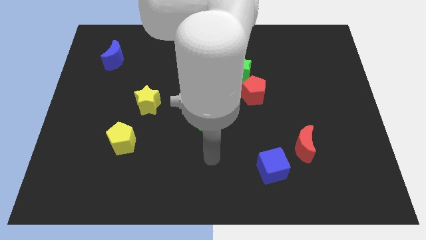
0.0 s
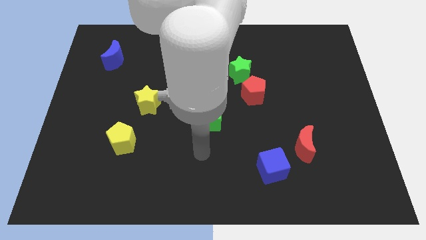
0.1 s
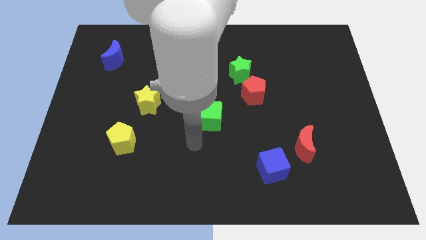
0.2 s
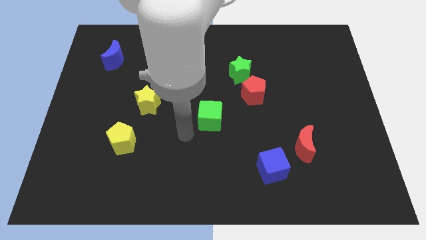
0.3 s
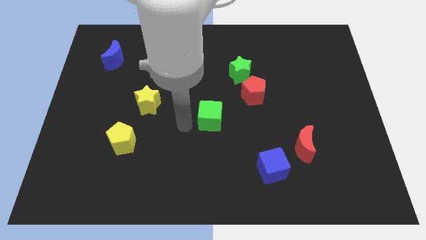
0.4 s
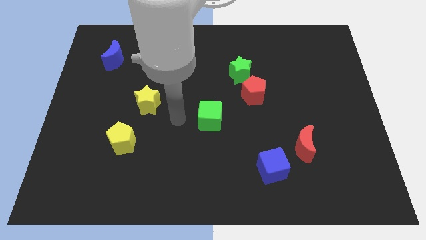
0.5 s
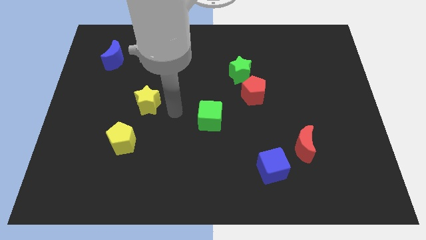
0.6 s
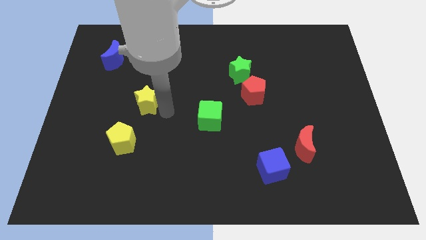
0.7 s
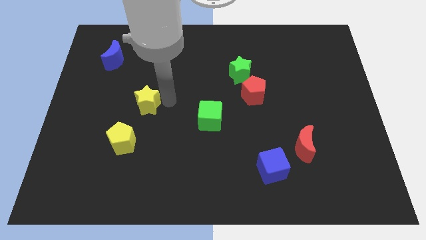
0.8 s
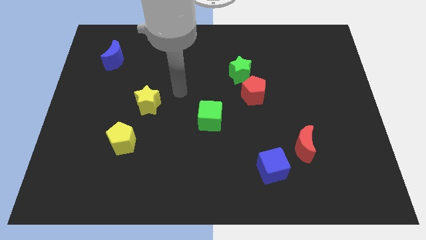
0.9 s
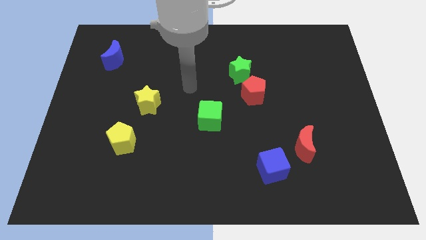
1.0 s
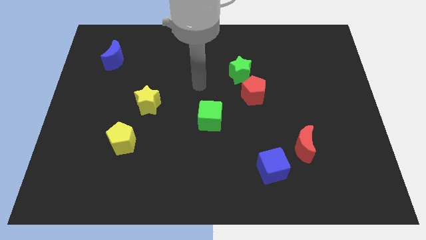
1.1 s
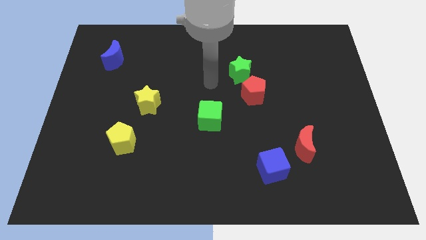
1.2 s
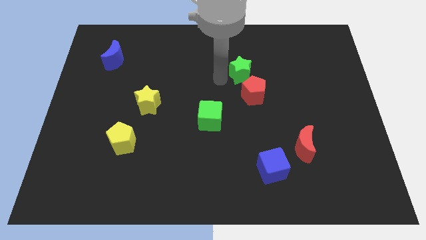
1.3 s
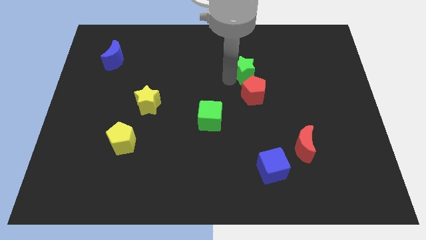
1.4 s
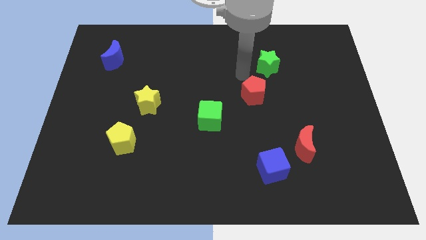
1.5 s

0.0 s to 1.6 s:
move the red pentagon away from the green star

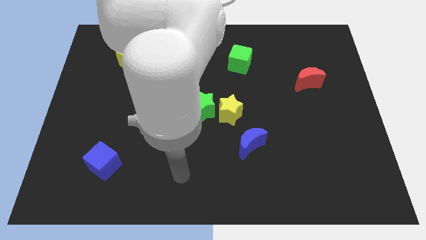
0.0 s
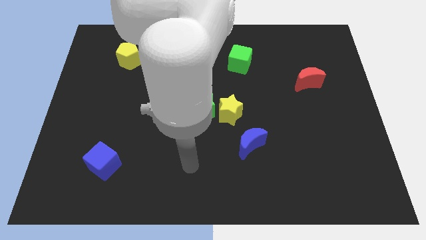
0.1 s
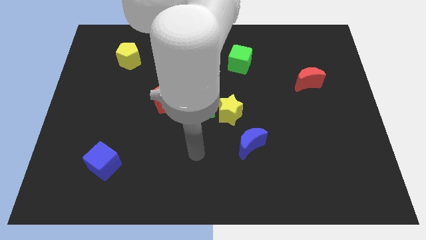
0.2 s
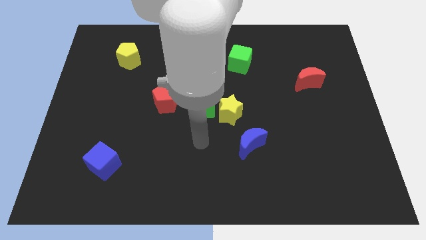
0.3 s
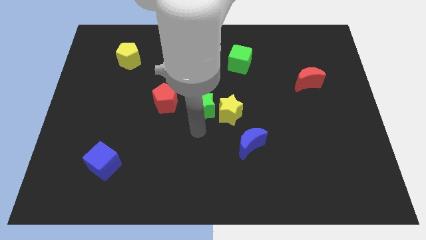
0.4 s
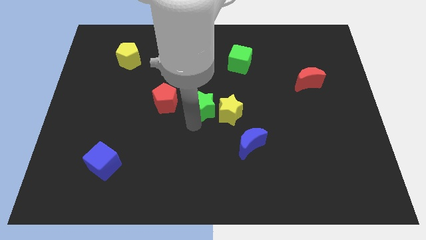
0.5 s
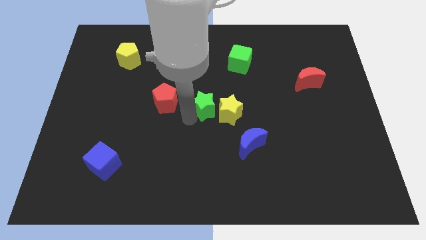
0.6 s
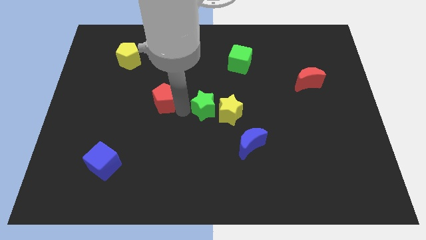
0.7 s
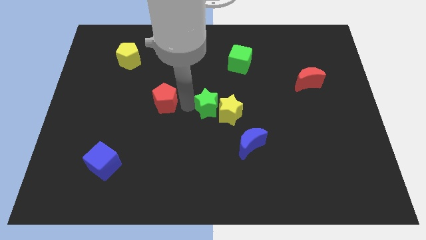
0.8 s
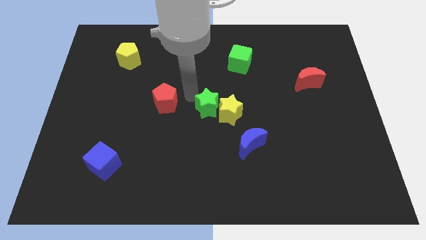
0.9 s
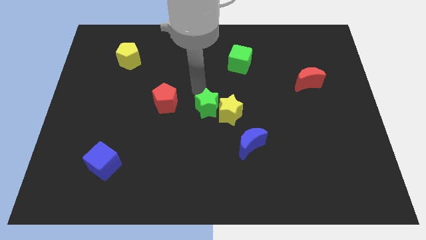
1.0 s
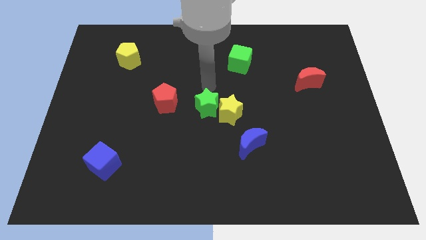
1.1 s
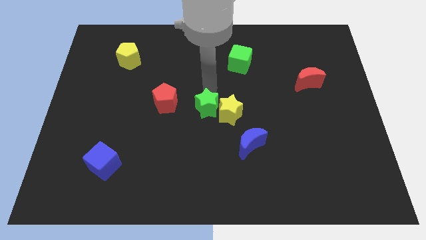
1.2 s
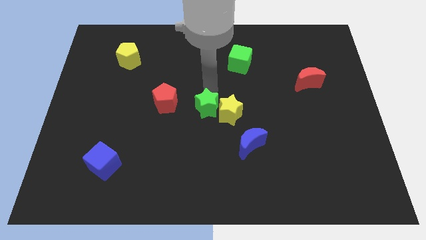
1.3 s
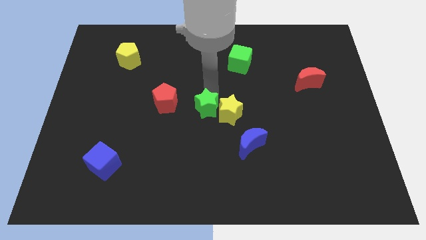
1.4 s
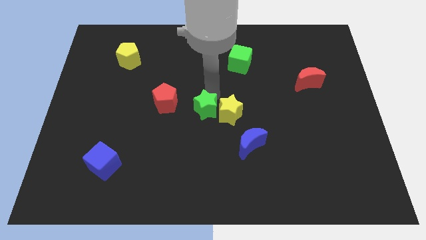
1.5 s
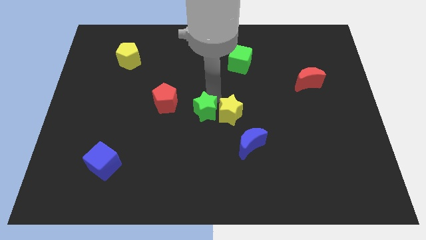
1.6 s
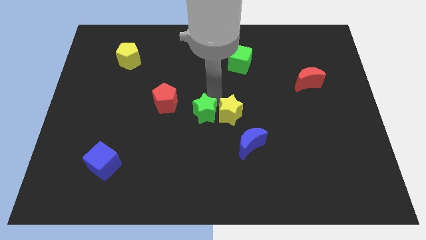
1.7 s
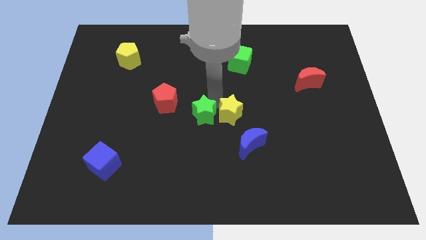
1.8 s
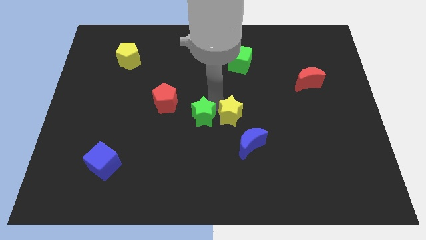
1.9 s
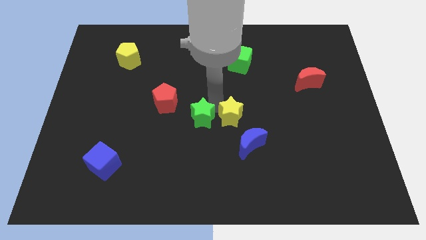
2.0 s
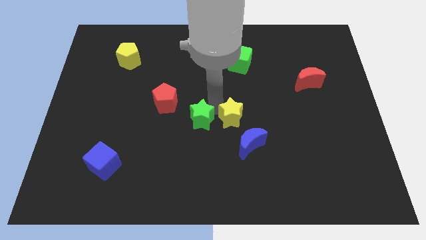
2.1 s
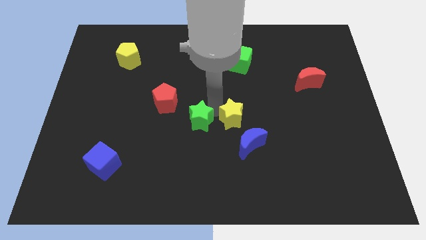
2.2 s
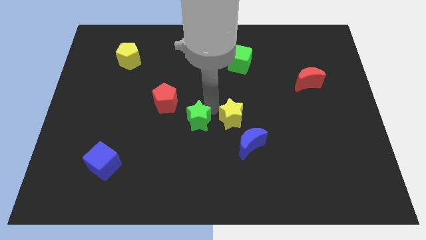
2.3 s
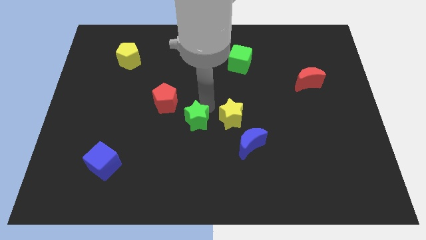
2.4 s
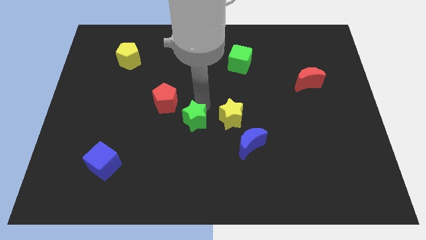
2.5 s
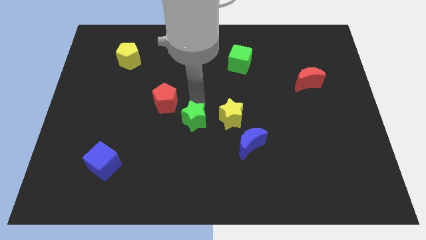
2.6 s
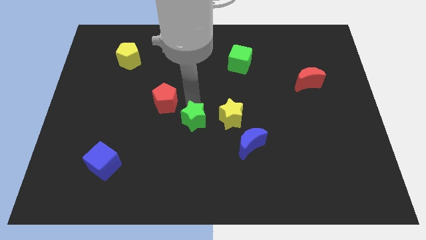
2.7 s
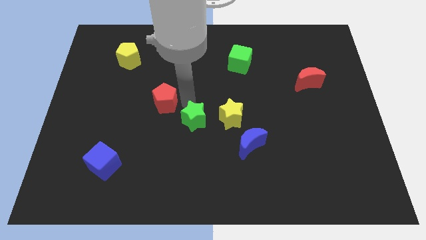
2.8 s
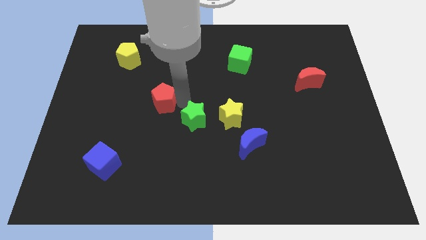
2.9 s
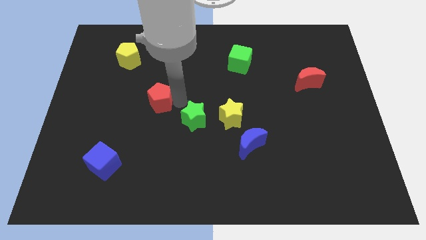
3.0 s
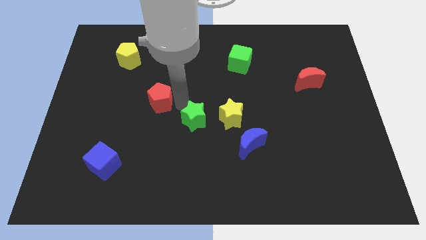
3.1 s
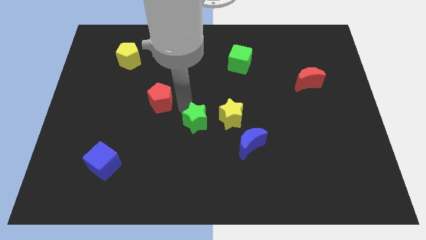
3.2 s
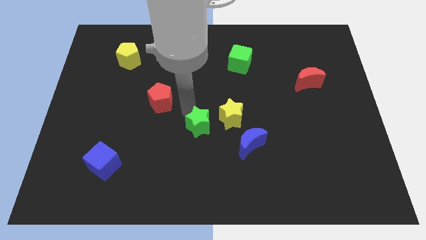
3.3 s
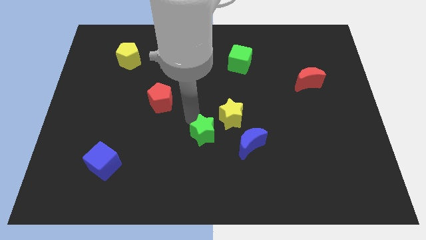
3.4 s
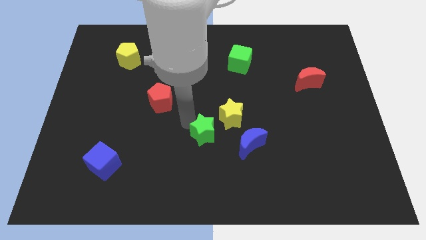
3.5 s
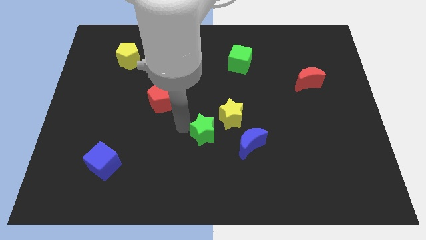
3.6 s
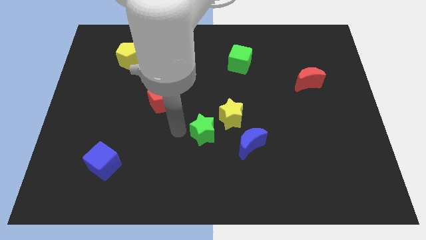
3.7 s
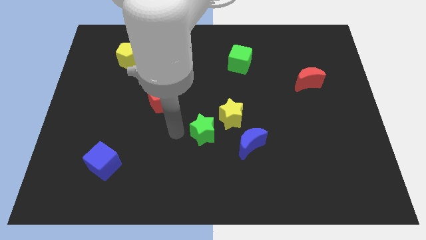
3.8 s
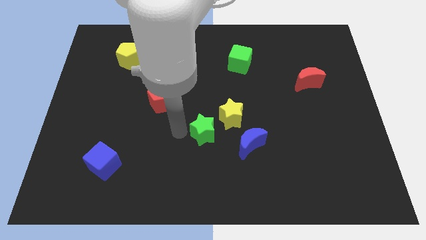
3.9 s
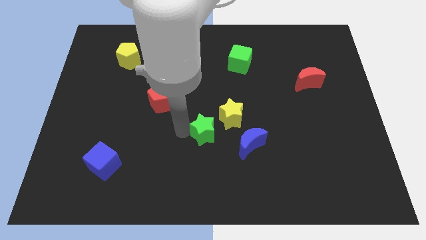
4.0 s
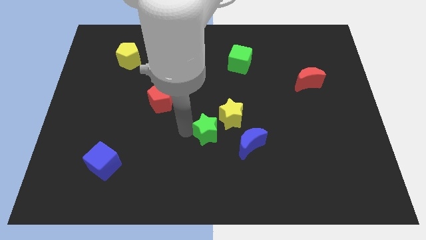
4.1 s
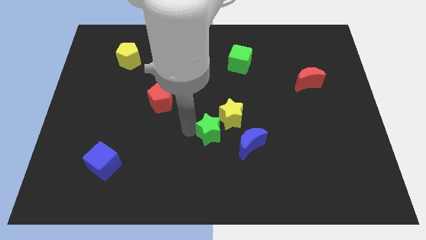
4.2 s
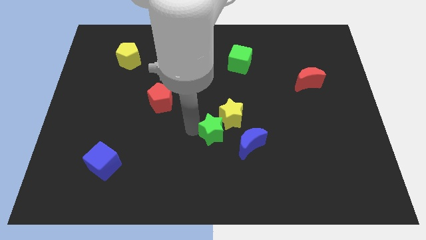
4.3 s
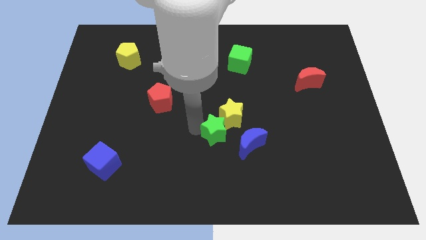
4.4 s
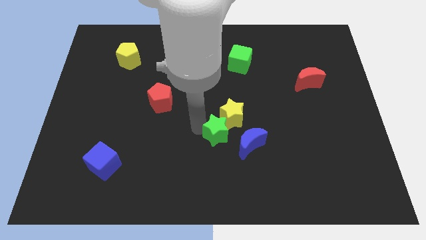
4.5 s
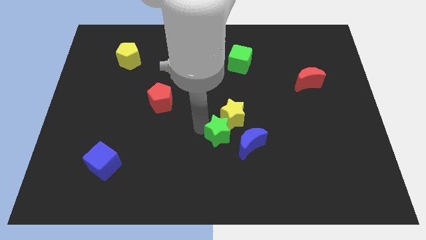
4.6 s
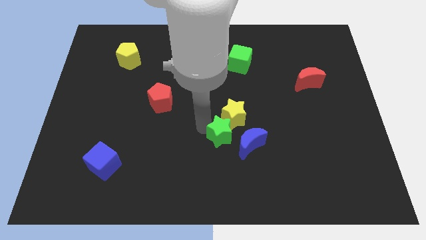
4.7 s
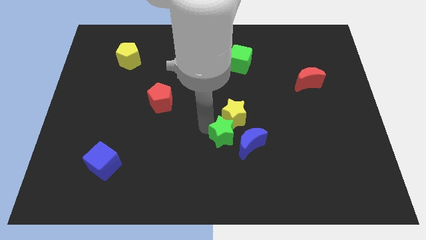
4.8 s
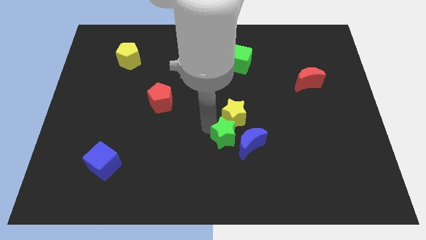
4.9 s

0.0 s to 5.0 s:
pull the green star apart from the yellow star and red pentagon

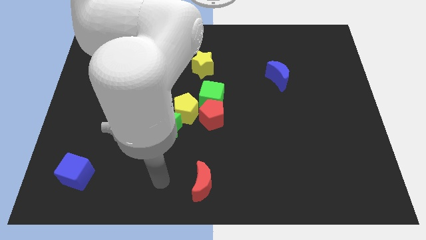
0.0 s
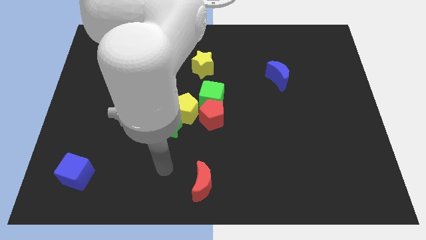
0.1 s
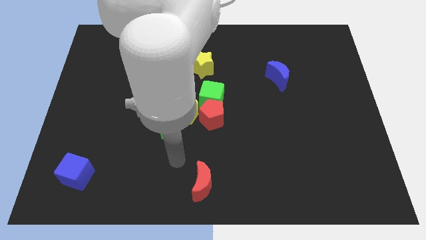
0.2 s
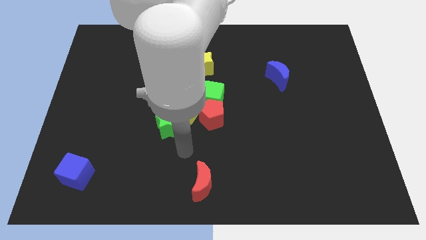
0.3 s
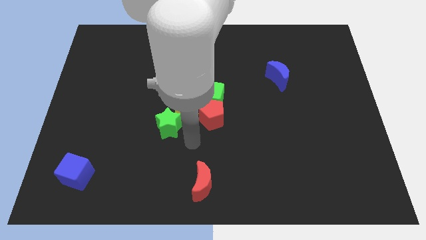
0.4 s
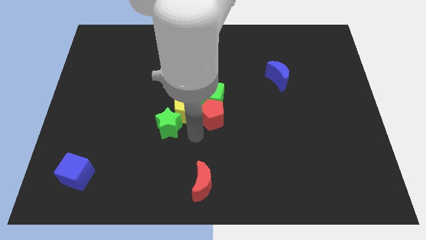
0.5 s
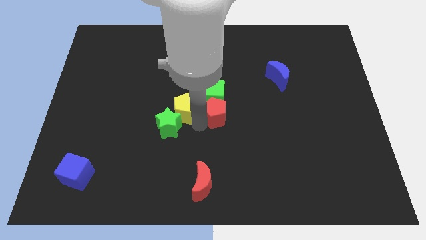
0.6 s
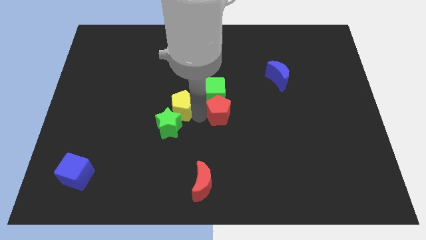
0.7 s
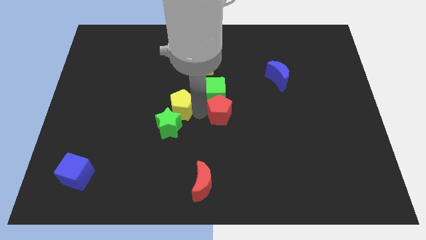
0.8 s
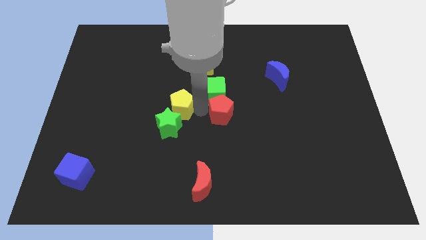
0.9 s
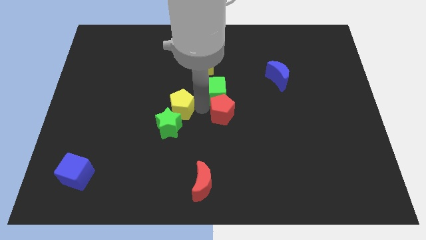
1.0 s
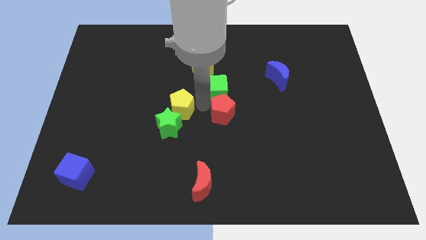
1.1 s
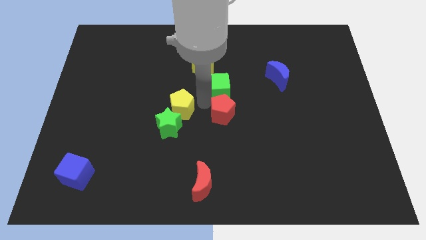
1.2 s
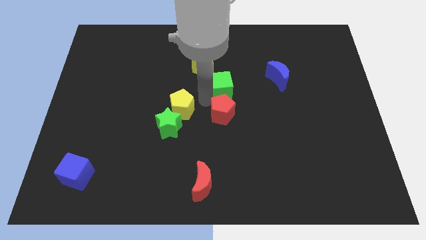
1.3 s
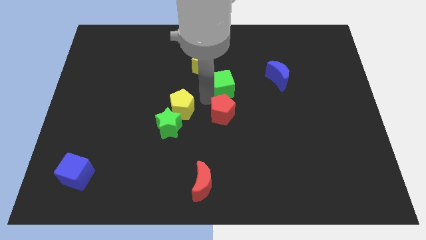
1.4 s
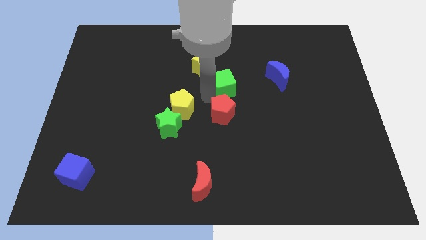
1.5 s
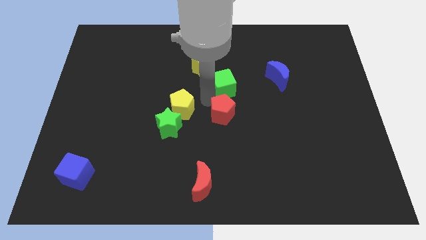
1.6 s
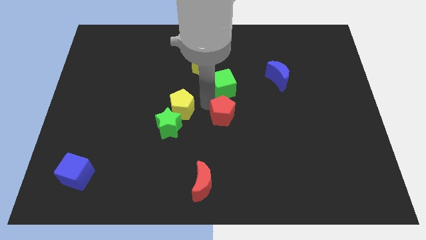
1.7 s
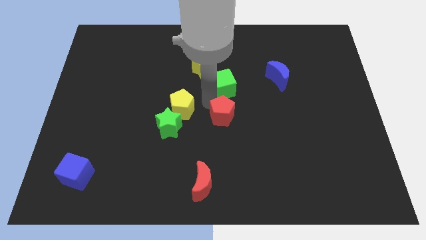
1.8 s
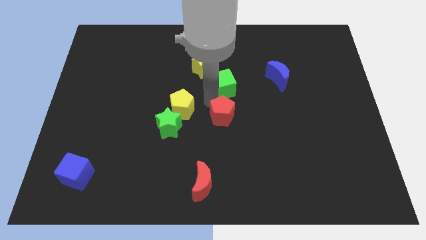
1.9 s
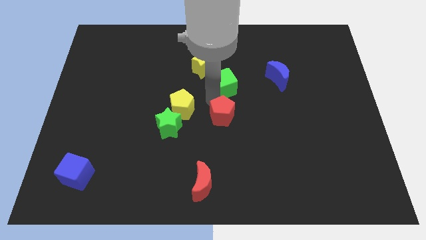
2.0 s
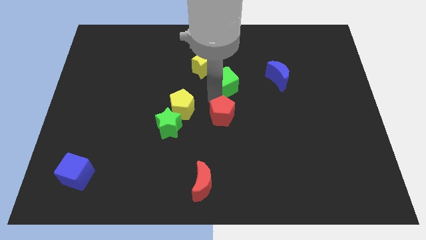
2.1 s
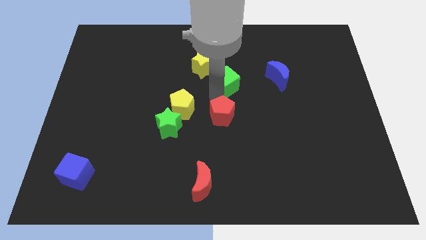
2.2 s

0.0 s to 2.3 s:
move the green cube away from the red pentagon and yellow pentagon

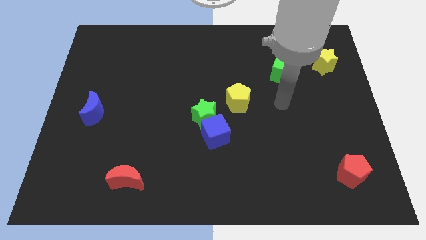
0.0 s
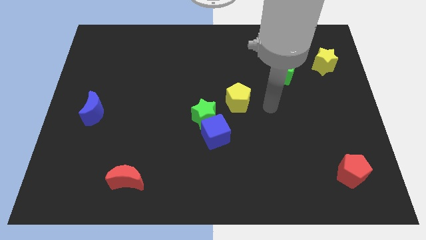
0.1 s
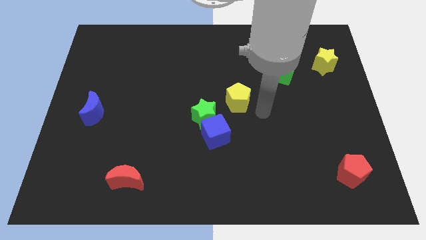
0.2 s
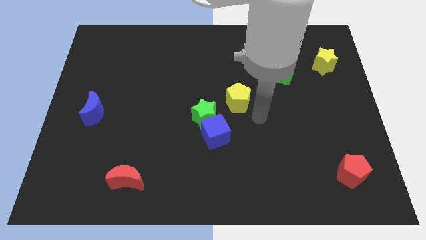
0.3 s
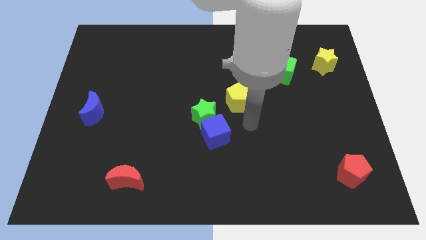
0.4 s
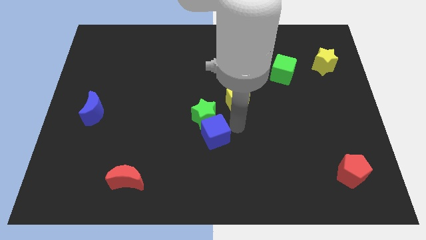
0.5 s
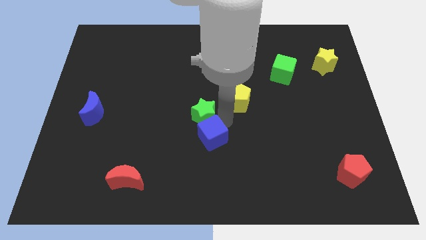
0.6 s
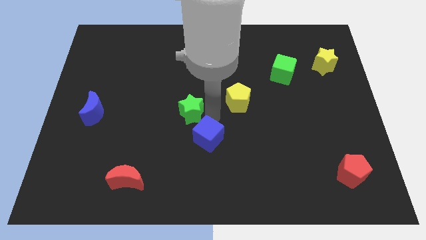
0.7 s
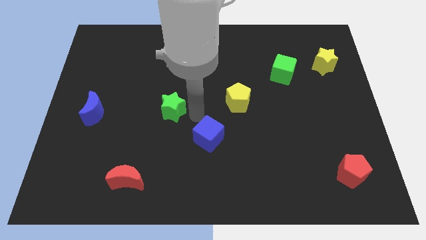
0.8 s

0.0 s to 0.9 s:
separate the blue cube from the green star
